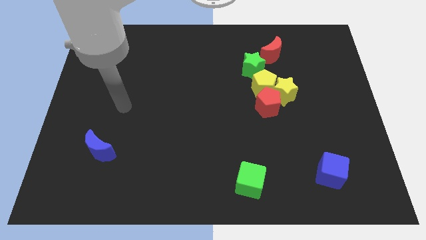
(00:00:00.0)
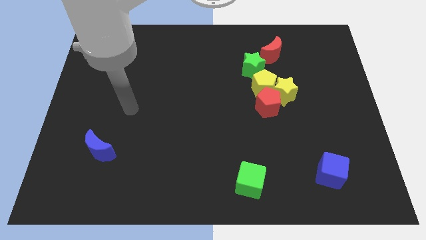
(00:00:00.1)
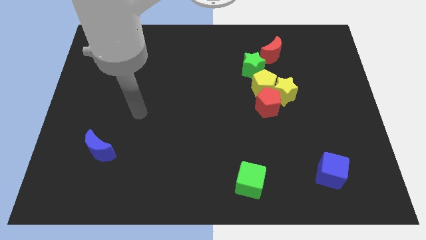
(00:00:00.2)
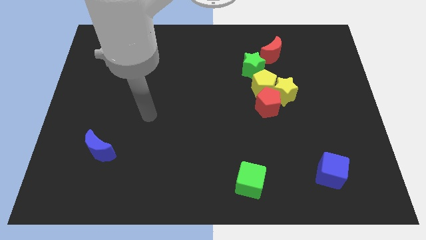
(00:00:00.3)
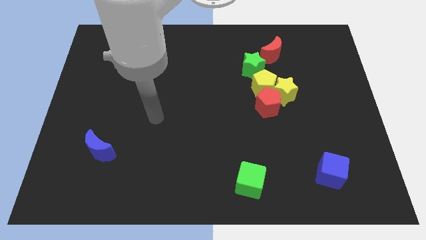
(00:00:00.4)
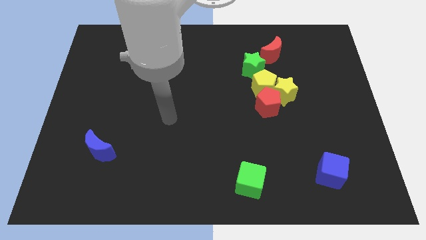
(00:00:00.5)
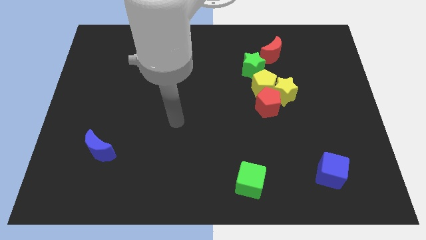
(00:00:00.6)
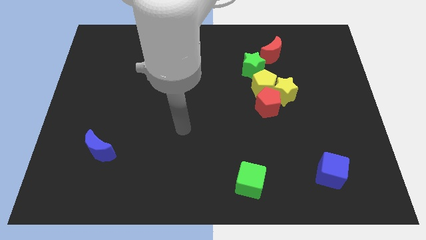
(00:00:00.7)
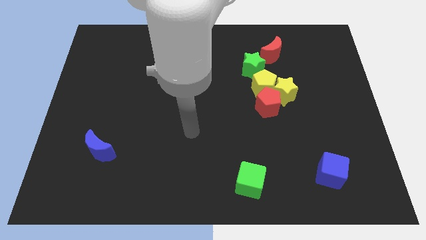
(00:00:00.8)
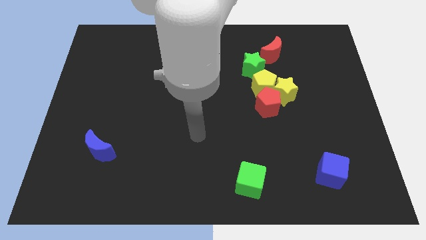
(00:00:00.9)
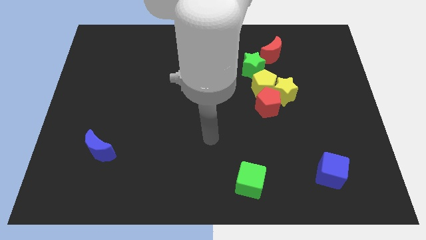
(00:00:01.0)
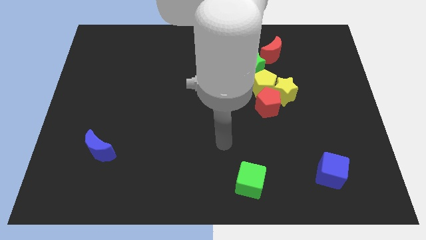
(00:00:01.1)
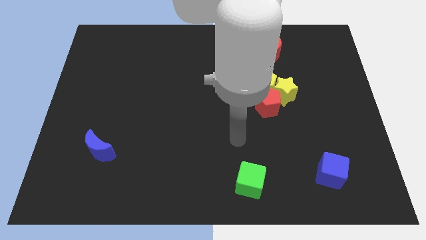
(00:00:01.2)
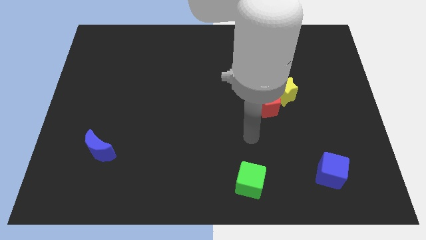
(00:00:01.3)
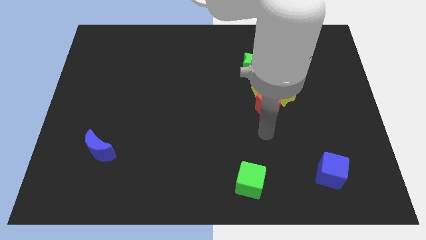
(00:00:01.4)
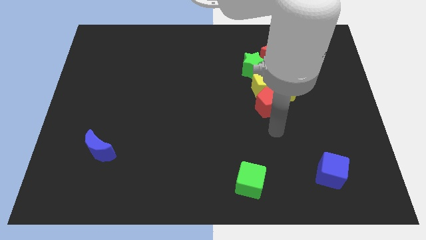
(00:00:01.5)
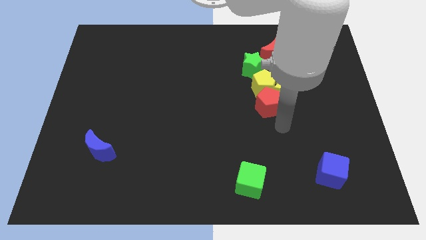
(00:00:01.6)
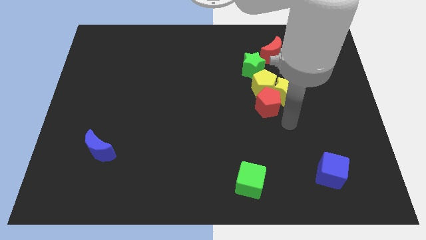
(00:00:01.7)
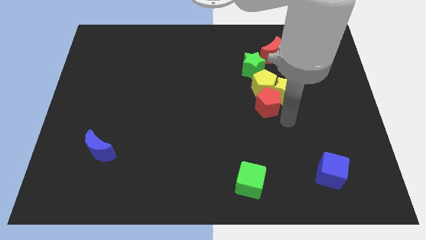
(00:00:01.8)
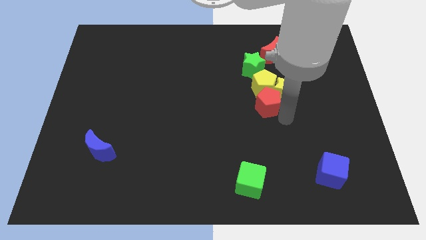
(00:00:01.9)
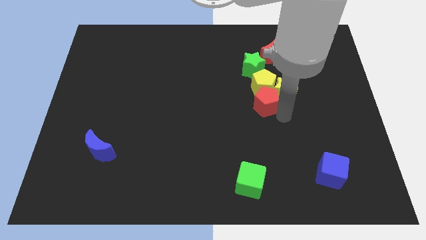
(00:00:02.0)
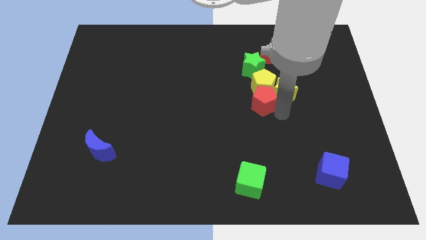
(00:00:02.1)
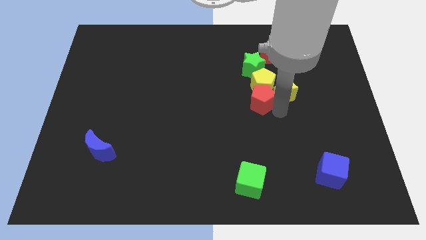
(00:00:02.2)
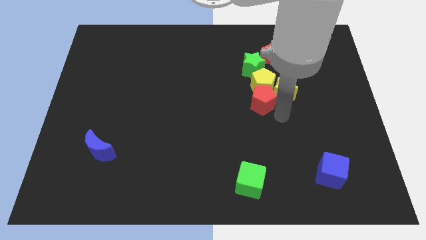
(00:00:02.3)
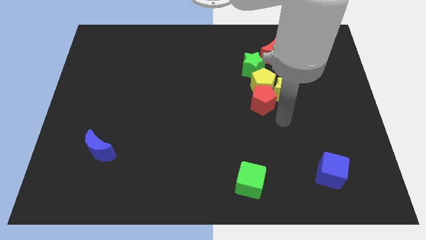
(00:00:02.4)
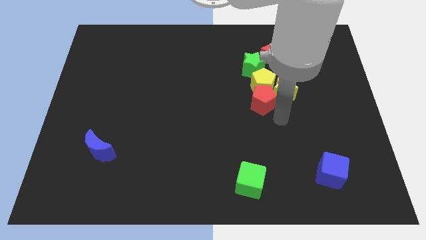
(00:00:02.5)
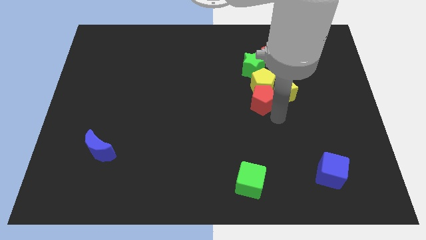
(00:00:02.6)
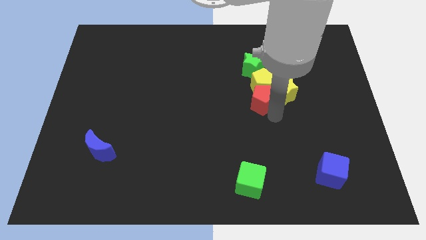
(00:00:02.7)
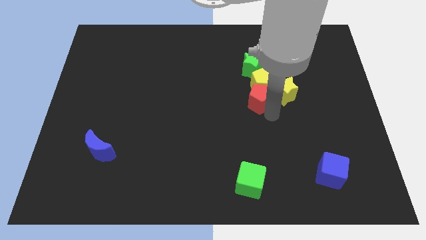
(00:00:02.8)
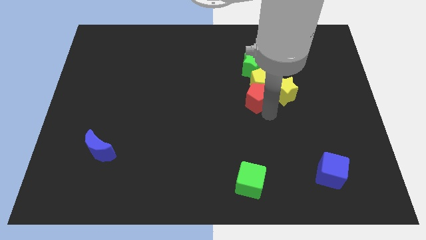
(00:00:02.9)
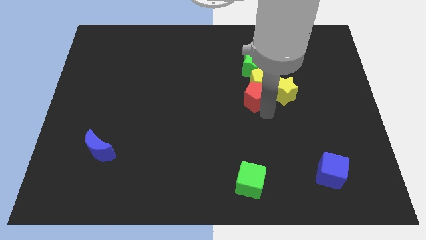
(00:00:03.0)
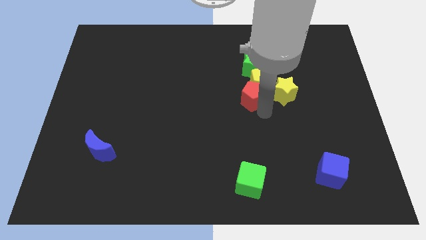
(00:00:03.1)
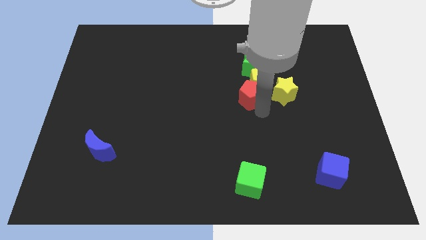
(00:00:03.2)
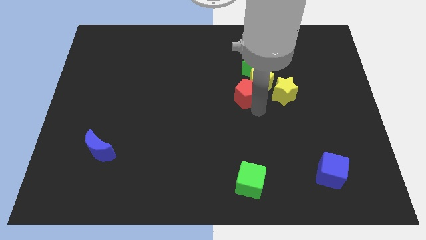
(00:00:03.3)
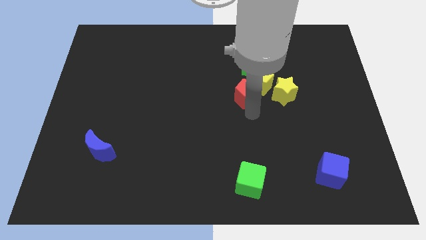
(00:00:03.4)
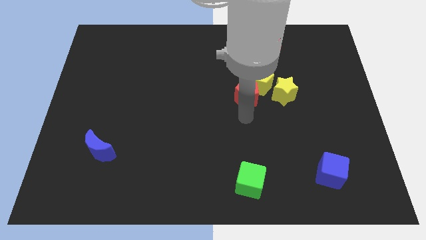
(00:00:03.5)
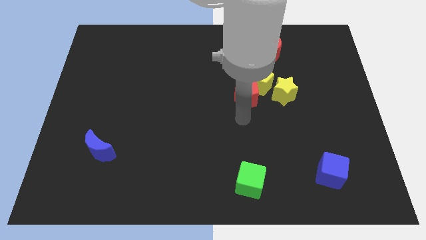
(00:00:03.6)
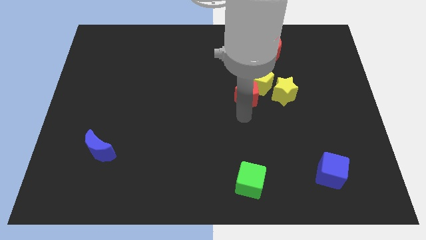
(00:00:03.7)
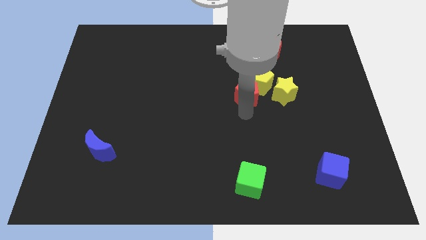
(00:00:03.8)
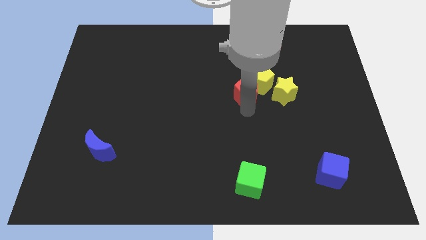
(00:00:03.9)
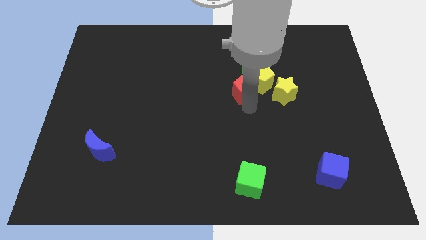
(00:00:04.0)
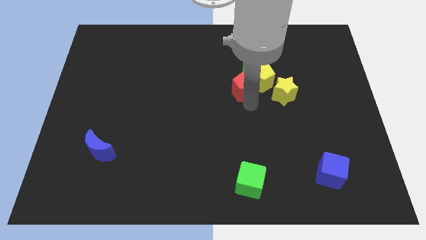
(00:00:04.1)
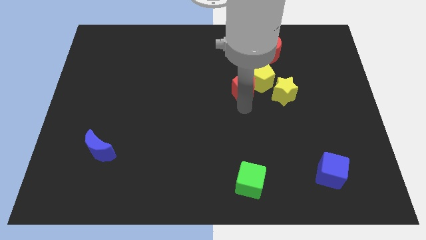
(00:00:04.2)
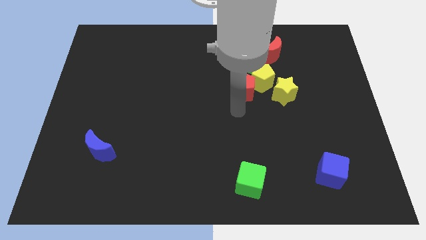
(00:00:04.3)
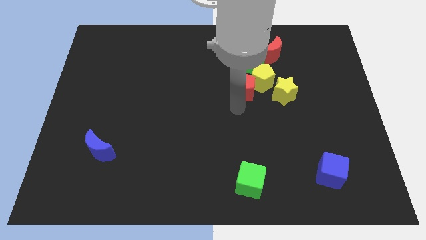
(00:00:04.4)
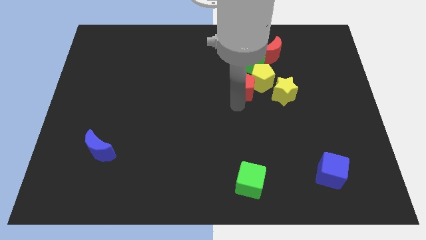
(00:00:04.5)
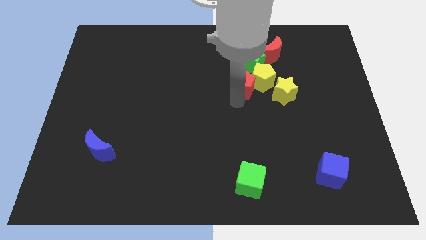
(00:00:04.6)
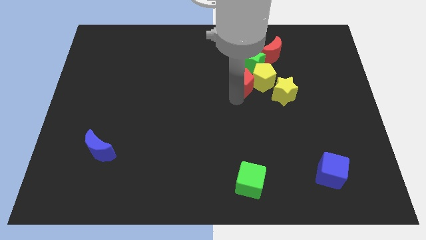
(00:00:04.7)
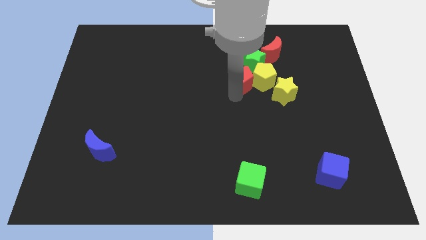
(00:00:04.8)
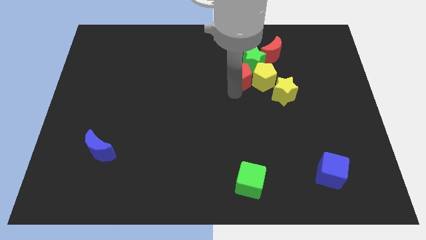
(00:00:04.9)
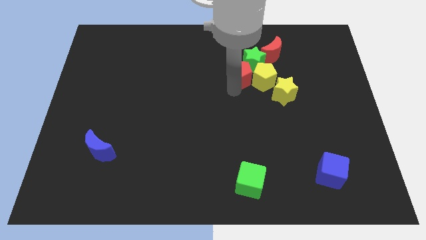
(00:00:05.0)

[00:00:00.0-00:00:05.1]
put the red pentagon close to the green star

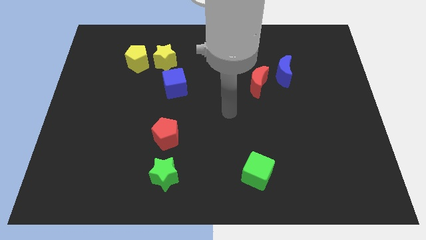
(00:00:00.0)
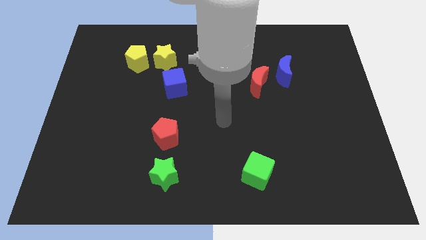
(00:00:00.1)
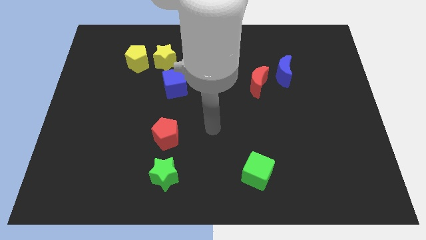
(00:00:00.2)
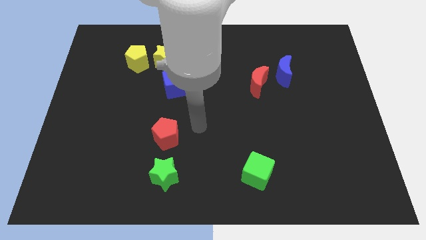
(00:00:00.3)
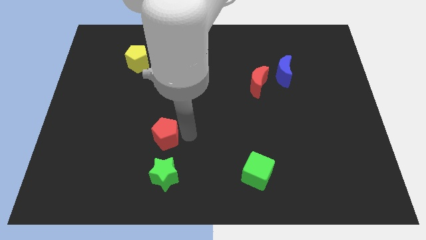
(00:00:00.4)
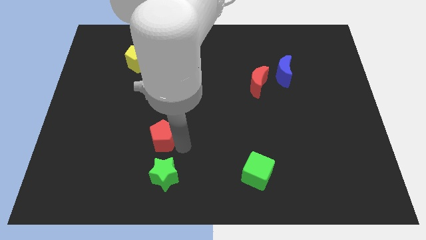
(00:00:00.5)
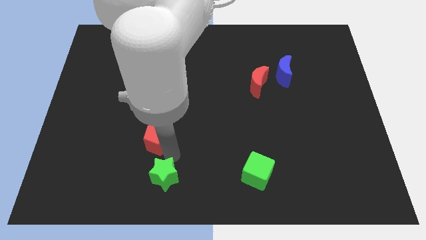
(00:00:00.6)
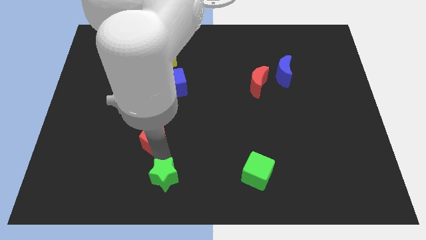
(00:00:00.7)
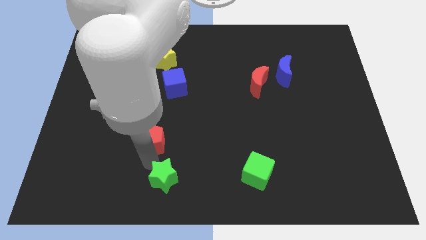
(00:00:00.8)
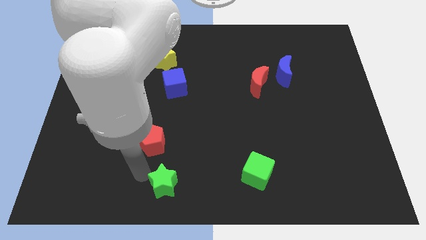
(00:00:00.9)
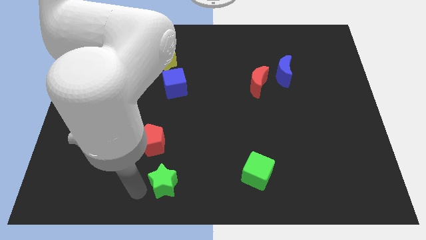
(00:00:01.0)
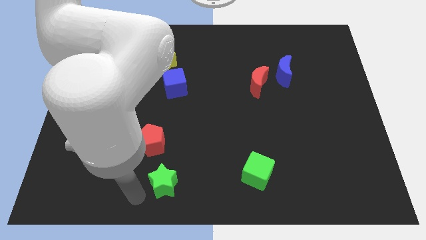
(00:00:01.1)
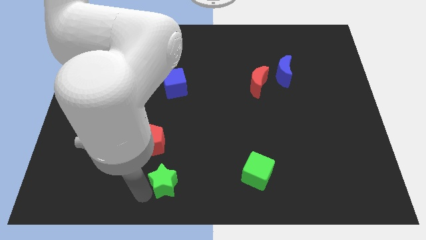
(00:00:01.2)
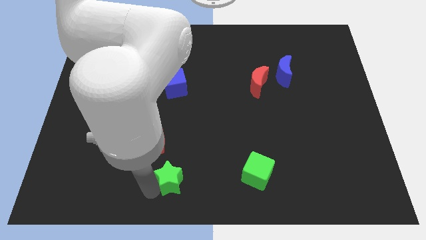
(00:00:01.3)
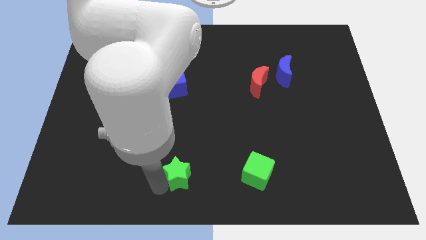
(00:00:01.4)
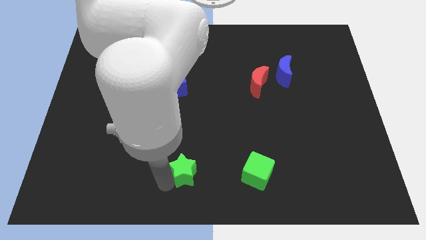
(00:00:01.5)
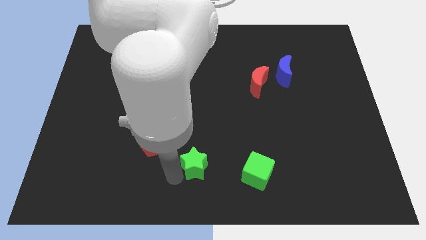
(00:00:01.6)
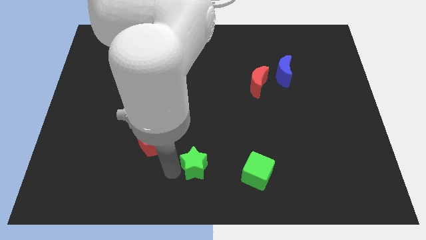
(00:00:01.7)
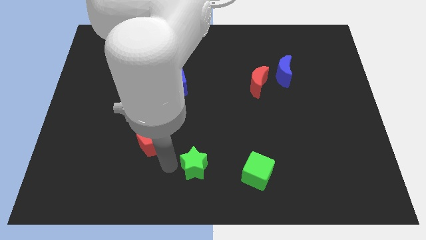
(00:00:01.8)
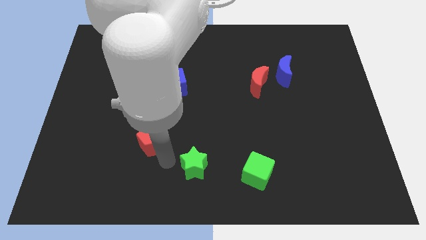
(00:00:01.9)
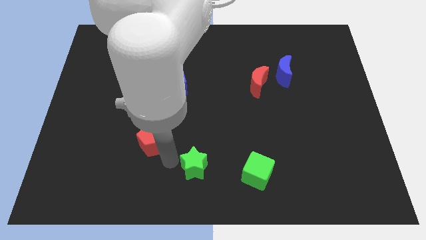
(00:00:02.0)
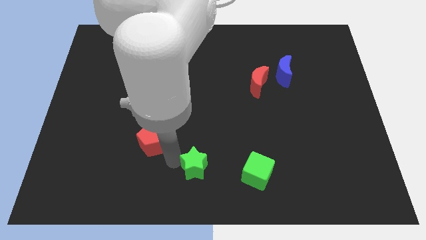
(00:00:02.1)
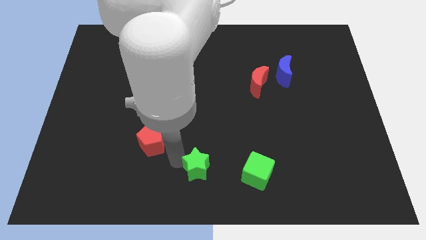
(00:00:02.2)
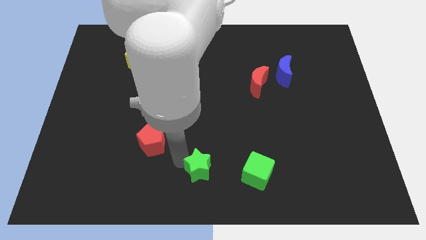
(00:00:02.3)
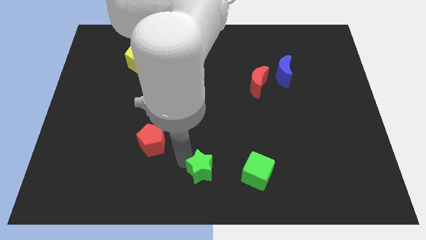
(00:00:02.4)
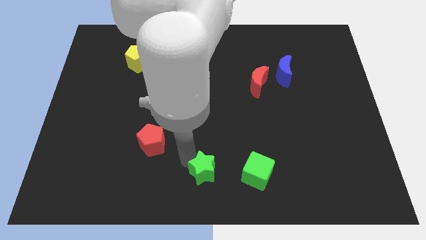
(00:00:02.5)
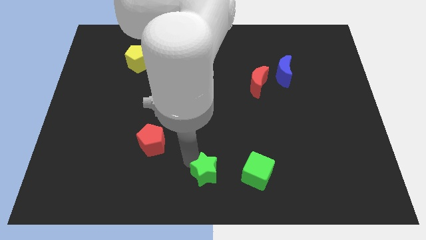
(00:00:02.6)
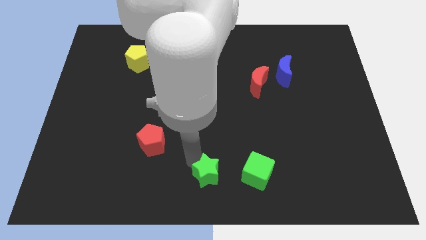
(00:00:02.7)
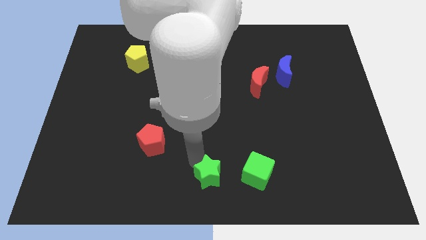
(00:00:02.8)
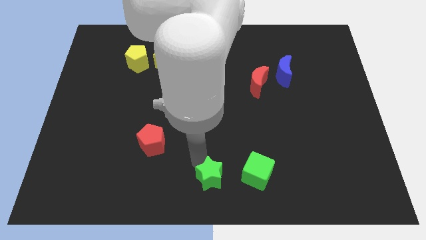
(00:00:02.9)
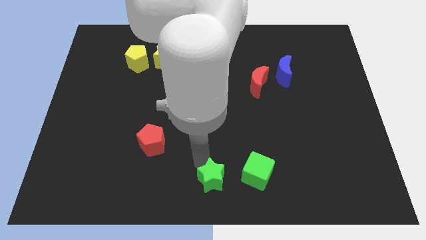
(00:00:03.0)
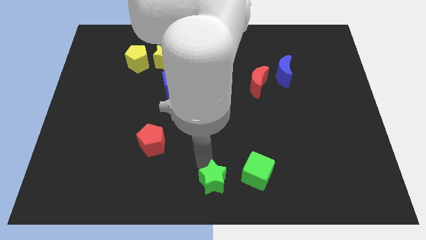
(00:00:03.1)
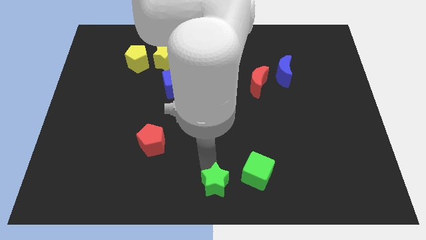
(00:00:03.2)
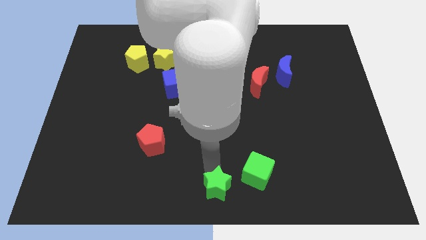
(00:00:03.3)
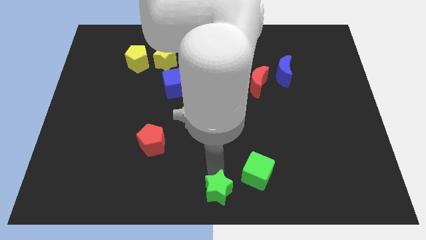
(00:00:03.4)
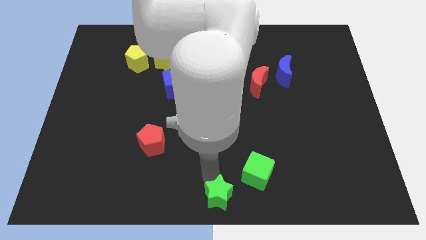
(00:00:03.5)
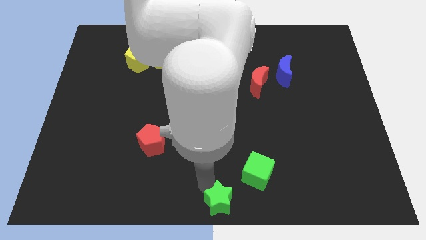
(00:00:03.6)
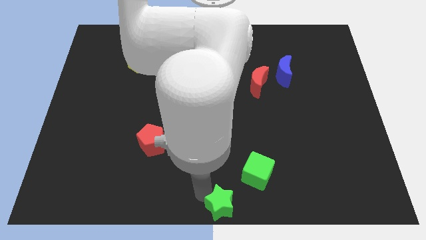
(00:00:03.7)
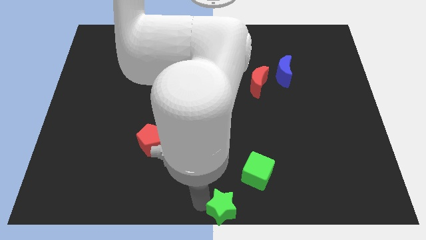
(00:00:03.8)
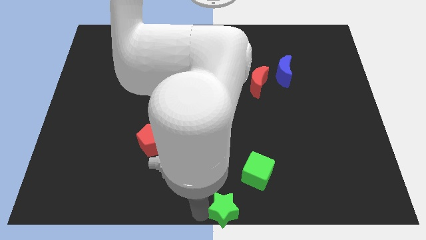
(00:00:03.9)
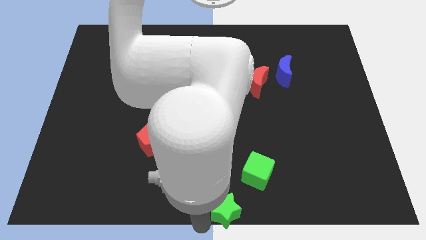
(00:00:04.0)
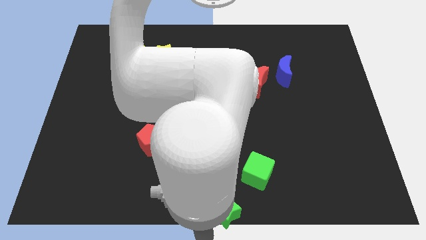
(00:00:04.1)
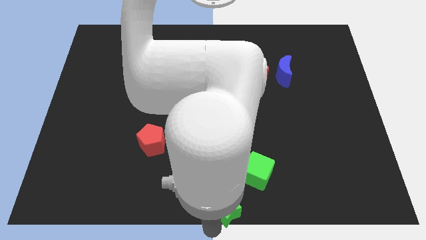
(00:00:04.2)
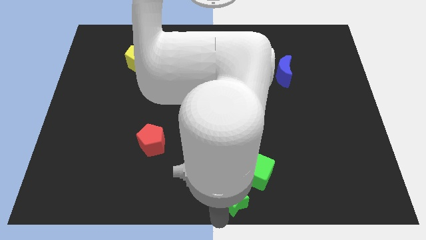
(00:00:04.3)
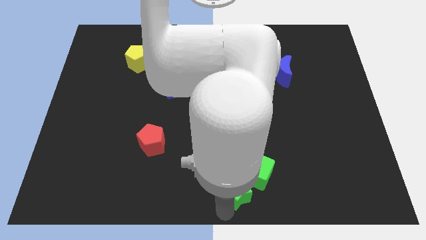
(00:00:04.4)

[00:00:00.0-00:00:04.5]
put the green star next to the green cube
